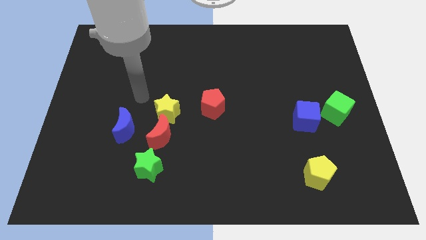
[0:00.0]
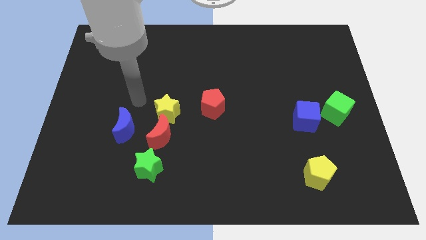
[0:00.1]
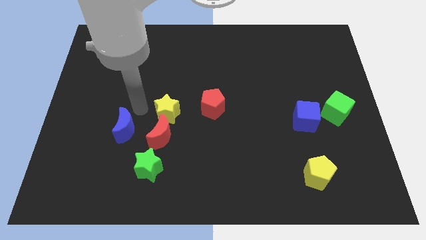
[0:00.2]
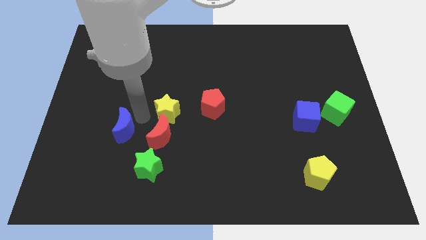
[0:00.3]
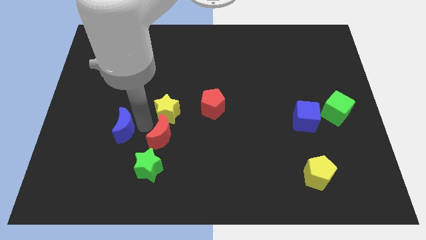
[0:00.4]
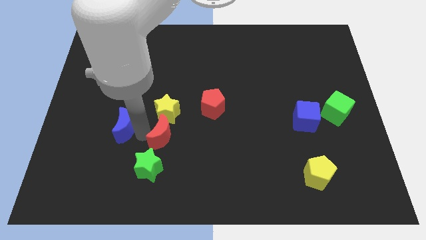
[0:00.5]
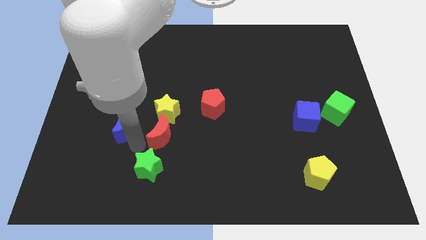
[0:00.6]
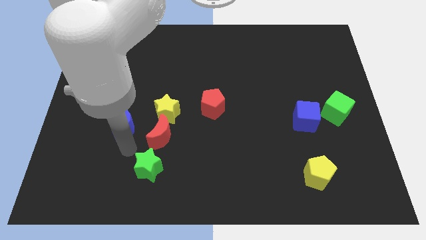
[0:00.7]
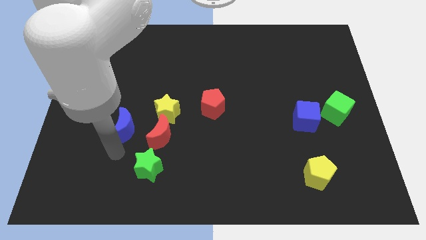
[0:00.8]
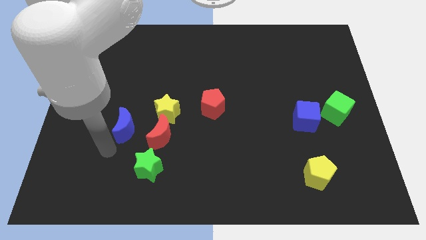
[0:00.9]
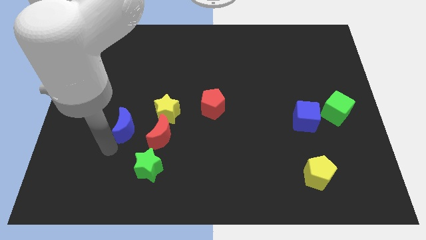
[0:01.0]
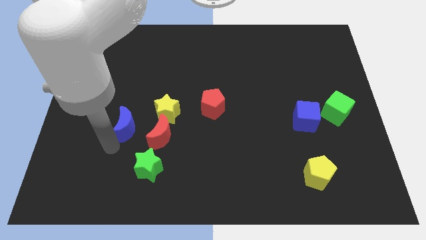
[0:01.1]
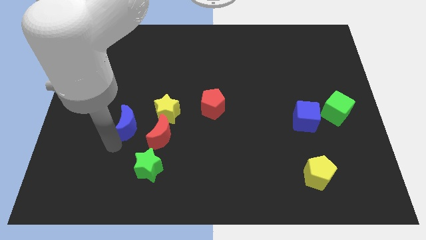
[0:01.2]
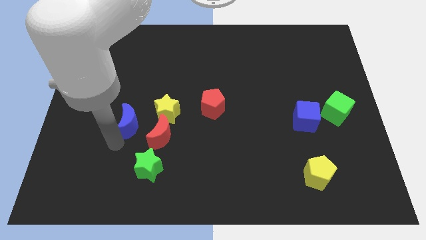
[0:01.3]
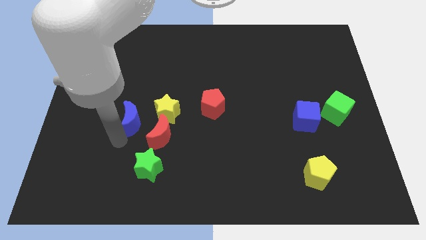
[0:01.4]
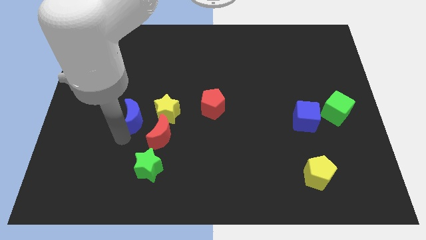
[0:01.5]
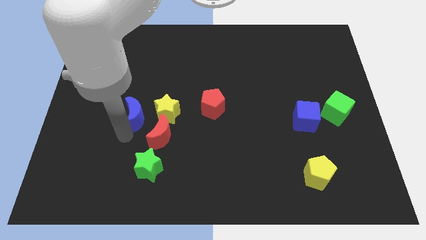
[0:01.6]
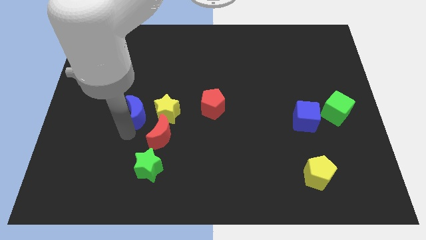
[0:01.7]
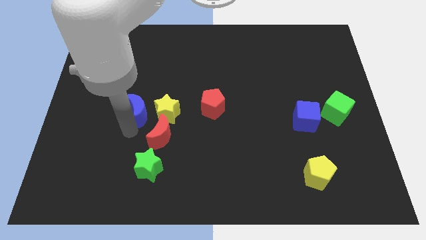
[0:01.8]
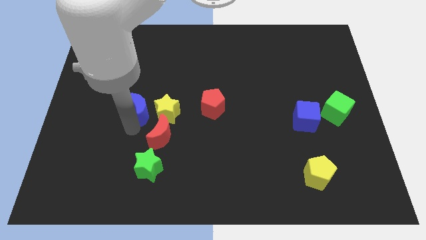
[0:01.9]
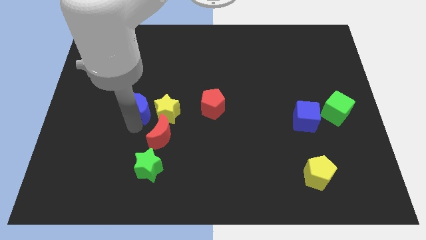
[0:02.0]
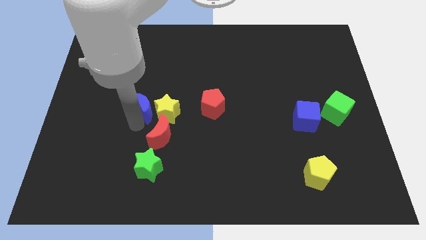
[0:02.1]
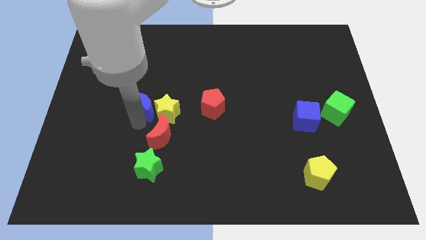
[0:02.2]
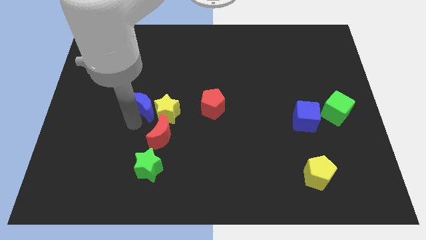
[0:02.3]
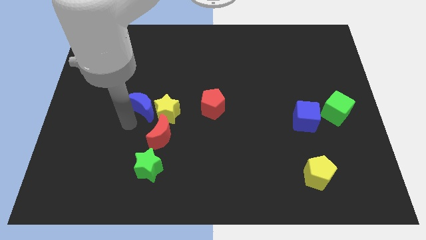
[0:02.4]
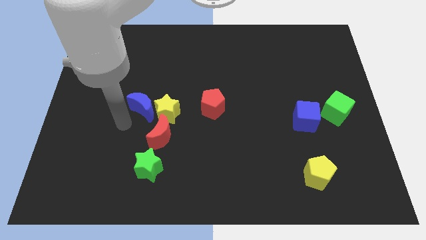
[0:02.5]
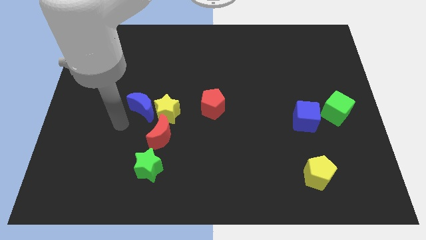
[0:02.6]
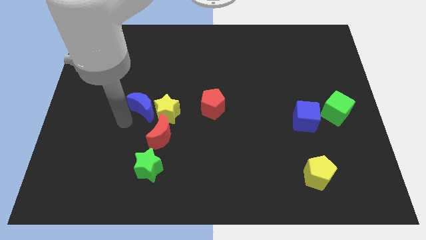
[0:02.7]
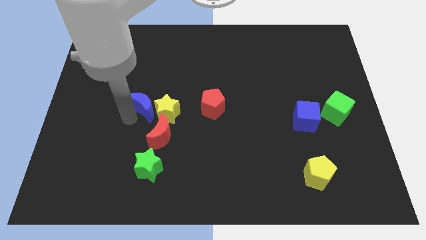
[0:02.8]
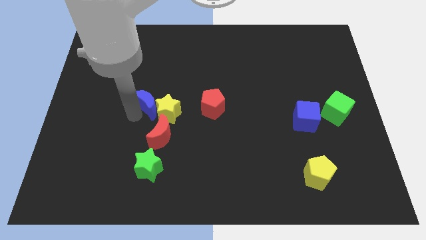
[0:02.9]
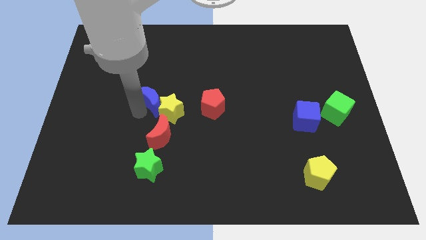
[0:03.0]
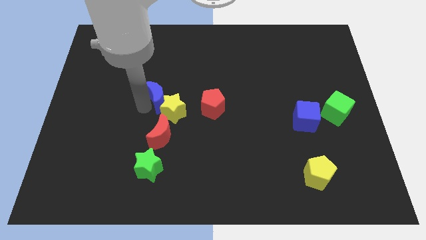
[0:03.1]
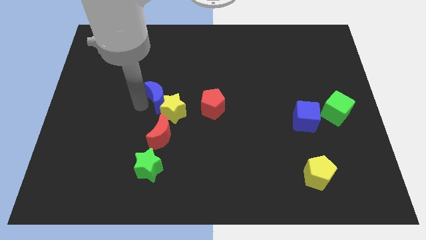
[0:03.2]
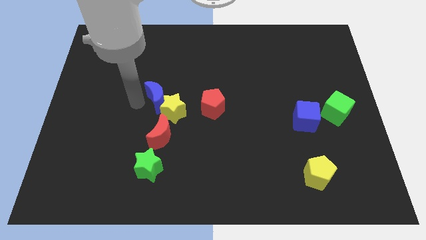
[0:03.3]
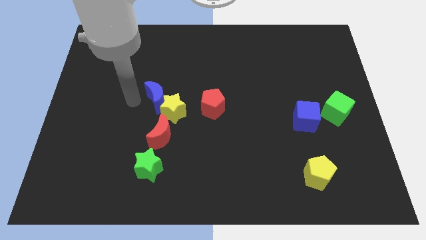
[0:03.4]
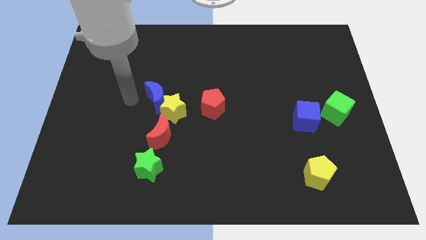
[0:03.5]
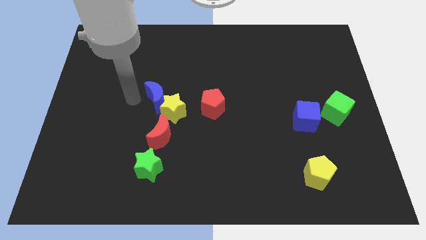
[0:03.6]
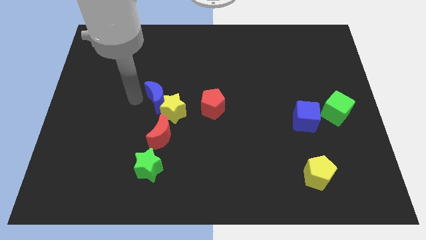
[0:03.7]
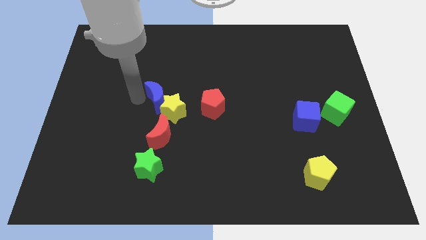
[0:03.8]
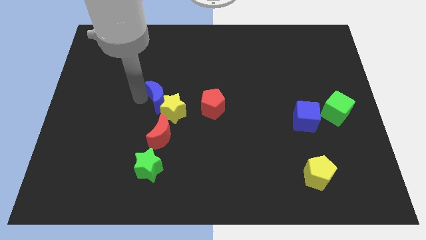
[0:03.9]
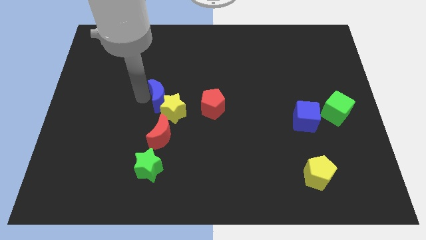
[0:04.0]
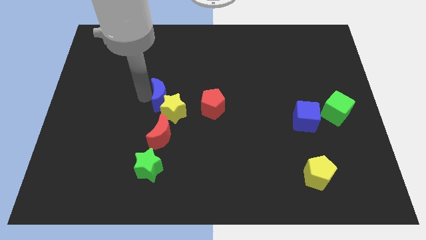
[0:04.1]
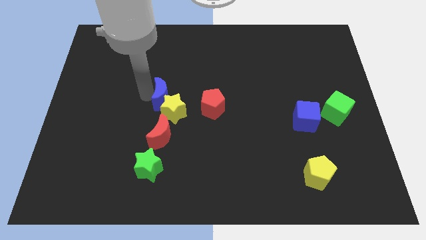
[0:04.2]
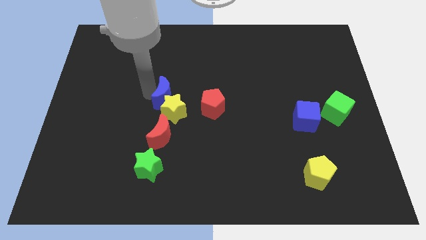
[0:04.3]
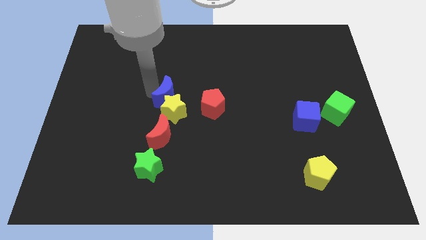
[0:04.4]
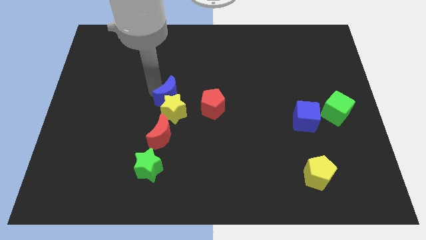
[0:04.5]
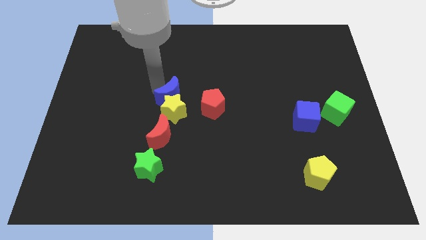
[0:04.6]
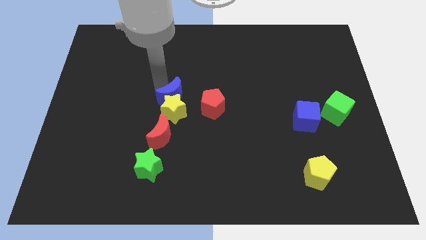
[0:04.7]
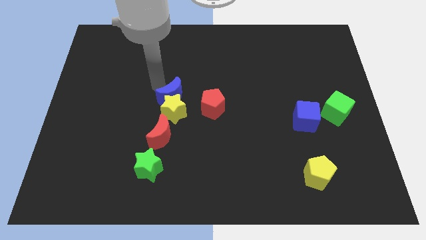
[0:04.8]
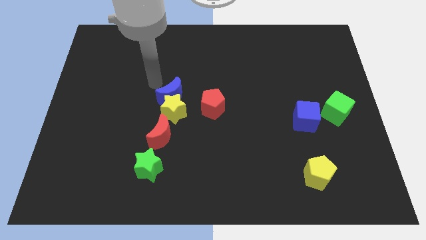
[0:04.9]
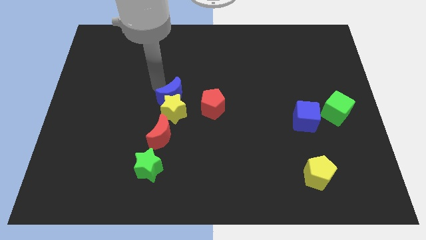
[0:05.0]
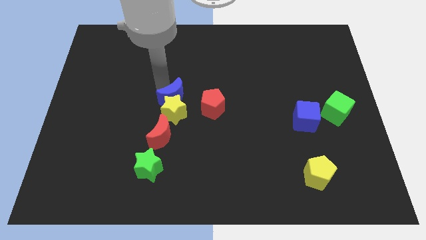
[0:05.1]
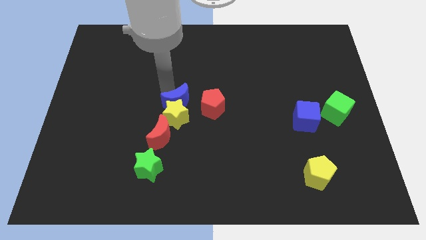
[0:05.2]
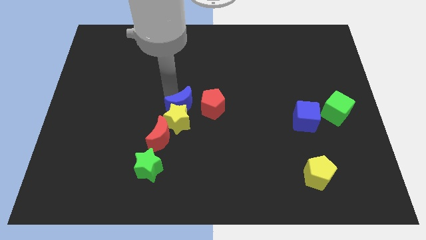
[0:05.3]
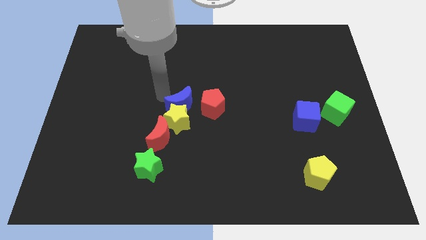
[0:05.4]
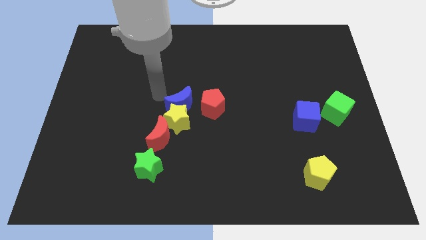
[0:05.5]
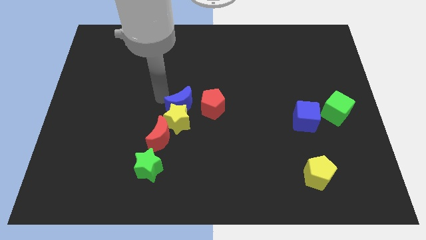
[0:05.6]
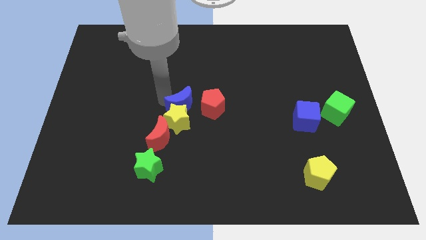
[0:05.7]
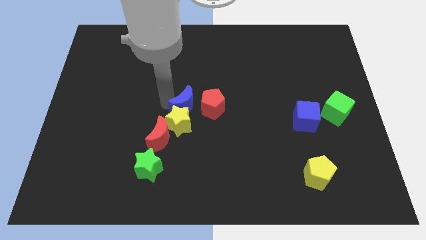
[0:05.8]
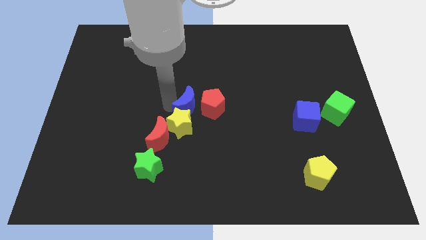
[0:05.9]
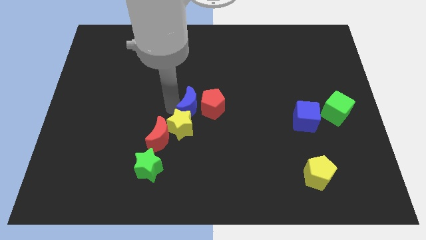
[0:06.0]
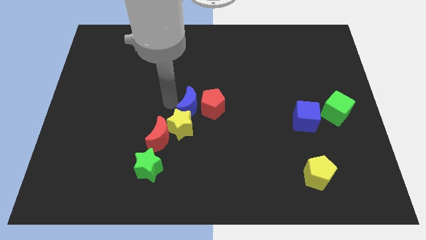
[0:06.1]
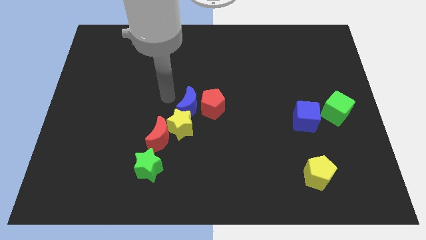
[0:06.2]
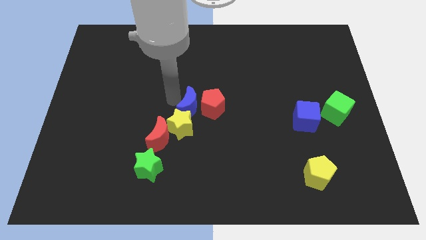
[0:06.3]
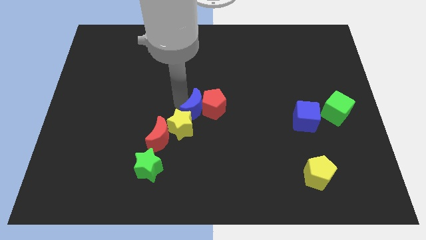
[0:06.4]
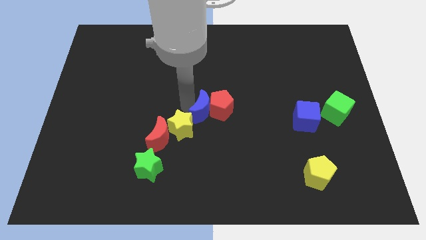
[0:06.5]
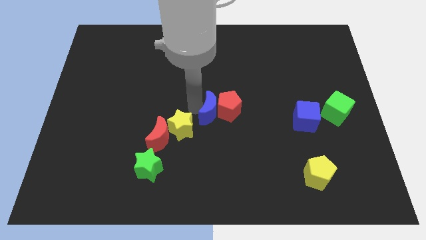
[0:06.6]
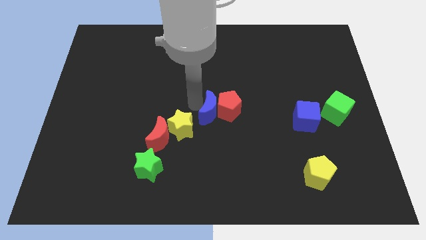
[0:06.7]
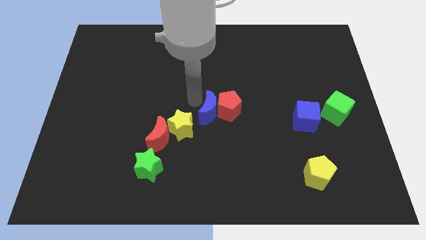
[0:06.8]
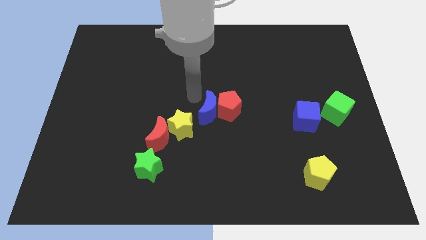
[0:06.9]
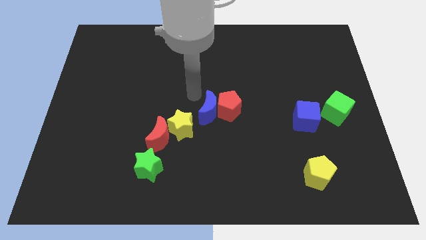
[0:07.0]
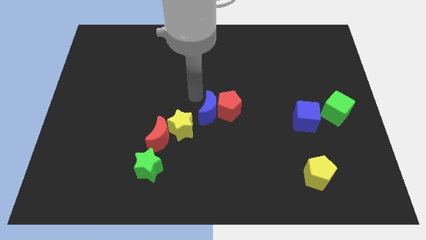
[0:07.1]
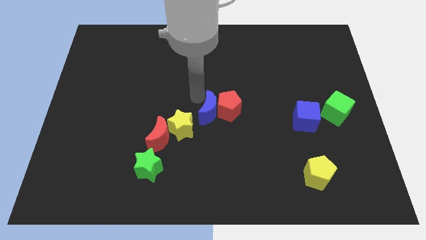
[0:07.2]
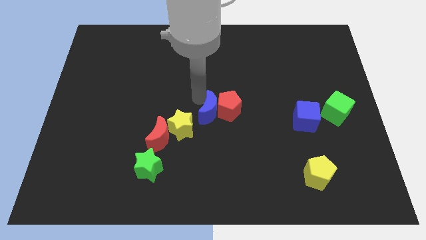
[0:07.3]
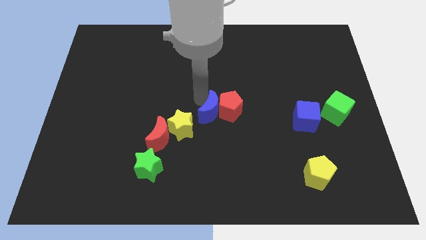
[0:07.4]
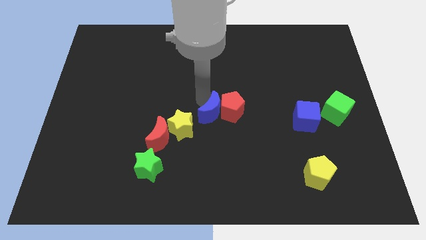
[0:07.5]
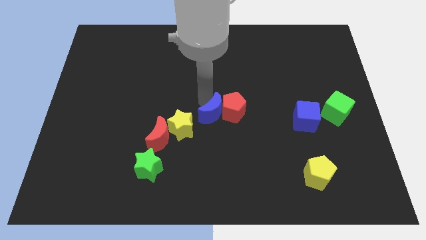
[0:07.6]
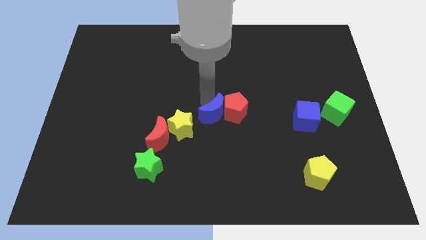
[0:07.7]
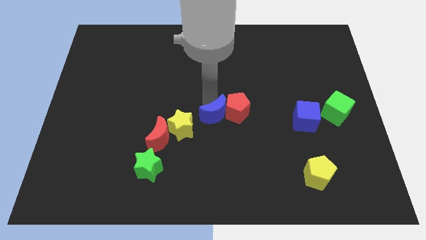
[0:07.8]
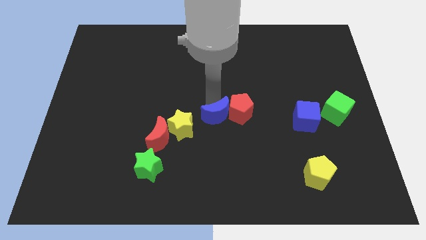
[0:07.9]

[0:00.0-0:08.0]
move the blue moon right
